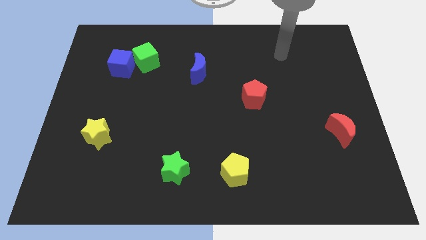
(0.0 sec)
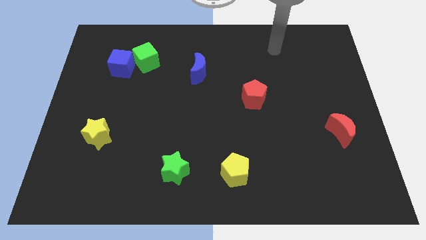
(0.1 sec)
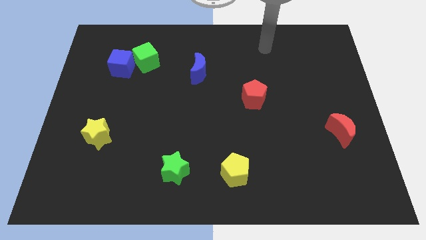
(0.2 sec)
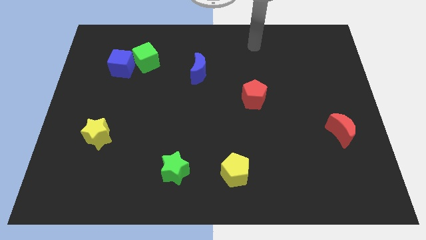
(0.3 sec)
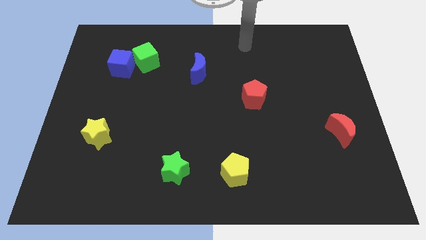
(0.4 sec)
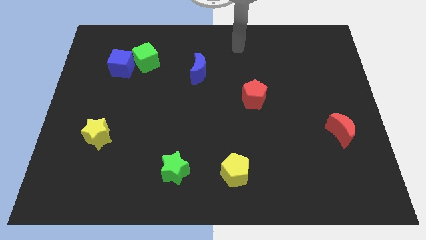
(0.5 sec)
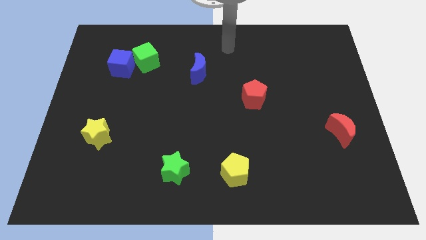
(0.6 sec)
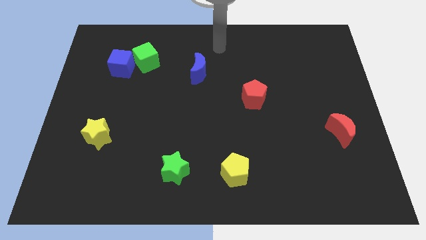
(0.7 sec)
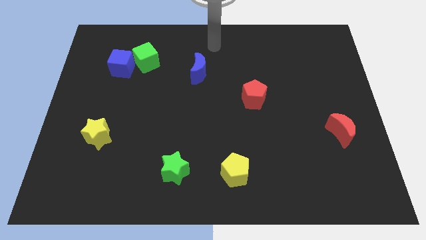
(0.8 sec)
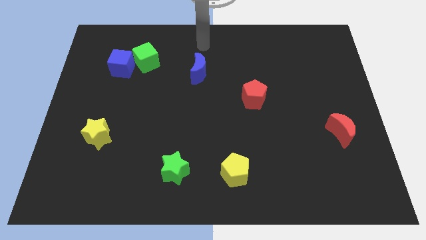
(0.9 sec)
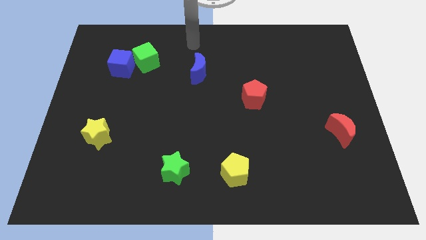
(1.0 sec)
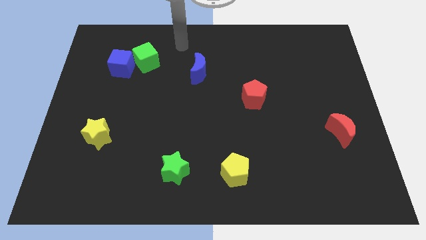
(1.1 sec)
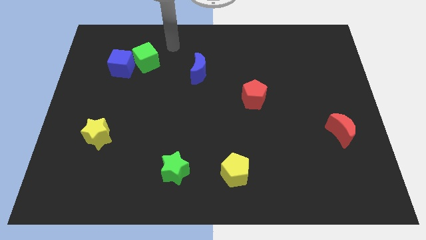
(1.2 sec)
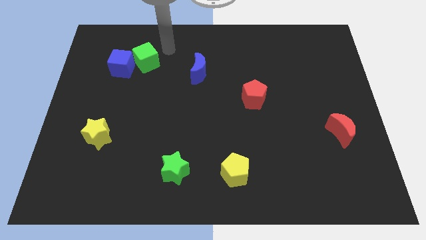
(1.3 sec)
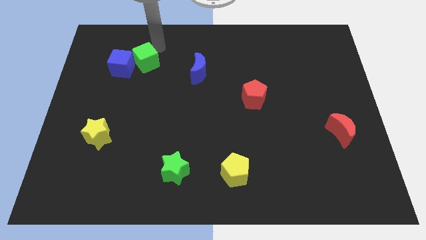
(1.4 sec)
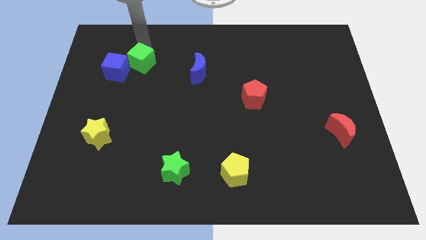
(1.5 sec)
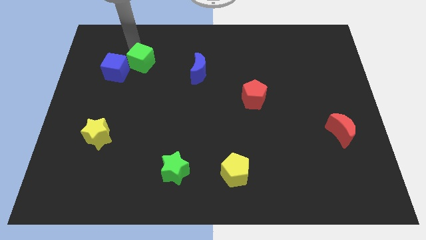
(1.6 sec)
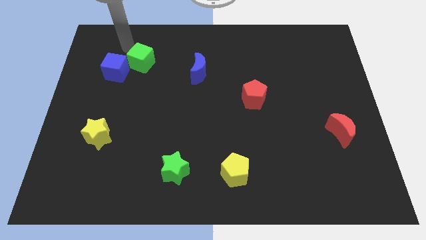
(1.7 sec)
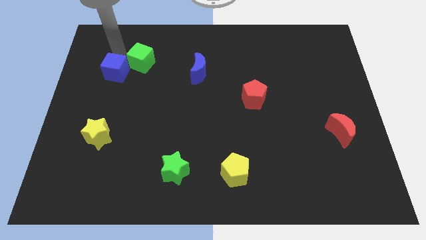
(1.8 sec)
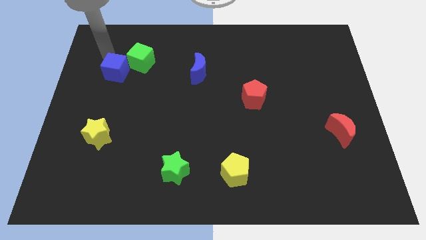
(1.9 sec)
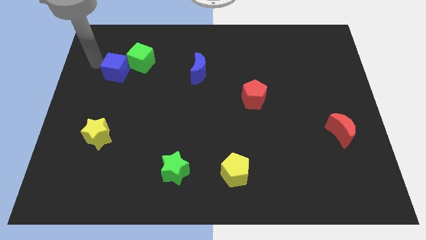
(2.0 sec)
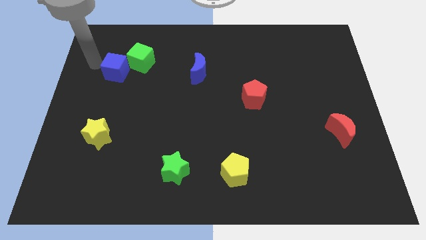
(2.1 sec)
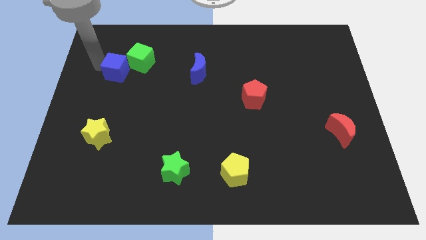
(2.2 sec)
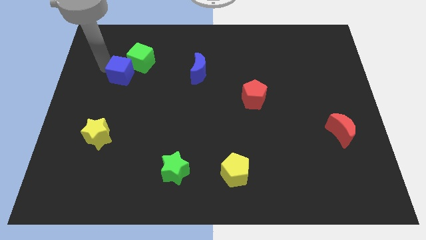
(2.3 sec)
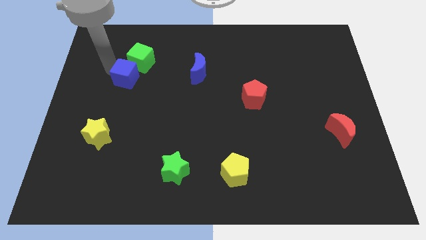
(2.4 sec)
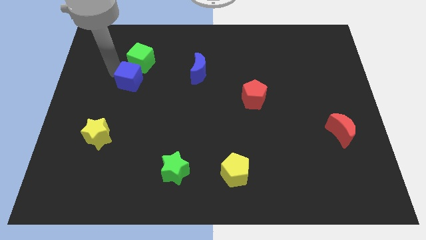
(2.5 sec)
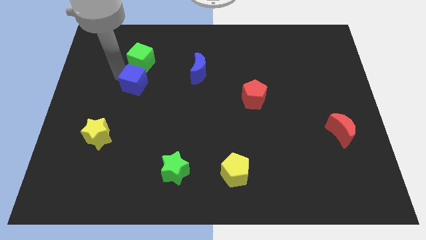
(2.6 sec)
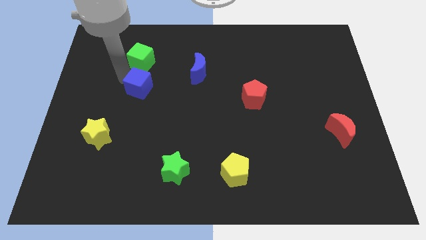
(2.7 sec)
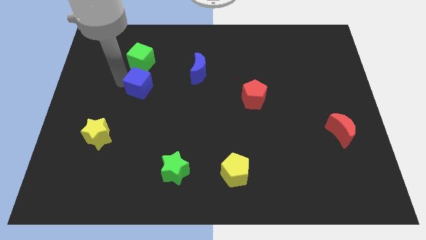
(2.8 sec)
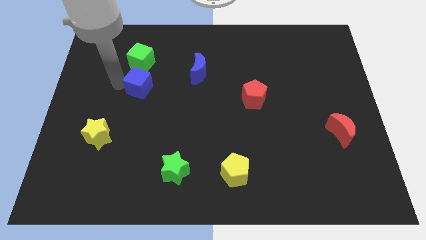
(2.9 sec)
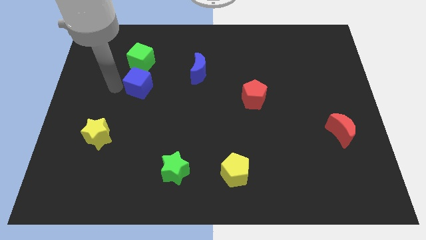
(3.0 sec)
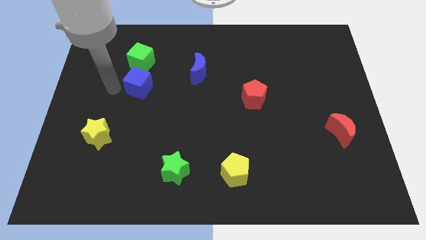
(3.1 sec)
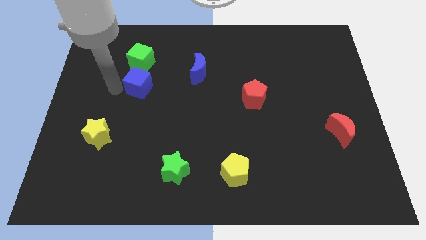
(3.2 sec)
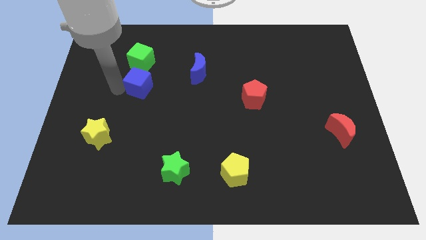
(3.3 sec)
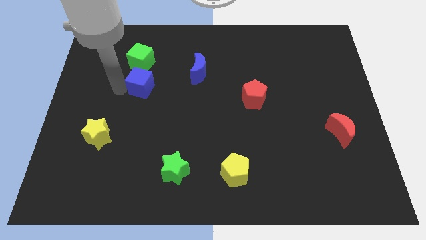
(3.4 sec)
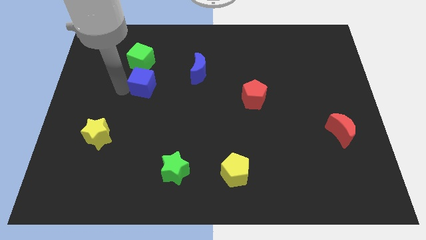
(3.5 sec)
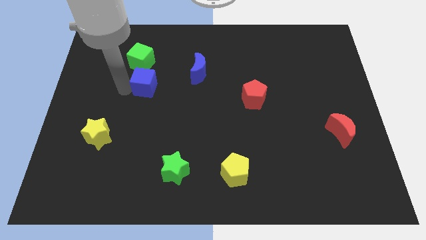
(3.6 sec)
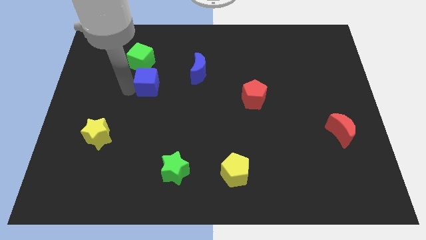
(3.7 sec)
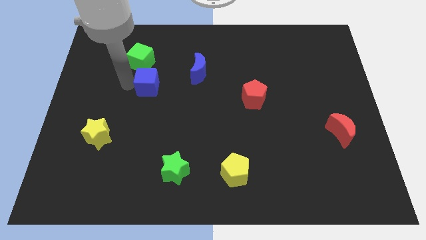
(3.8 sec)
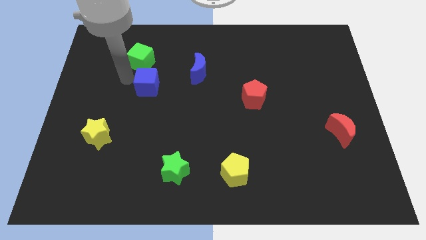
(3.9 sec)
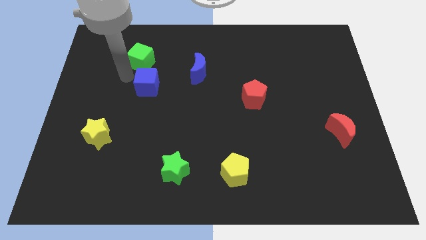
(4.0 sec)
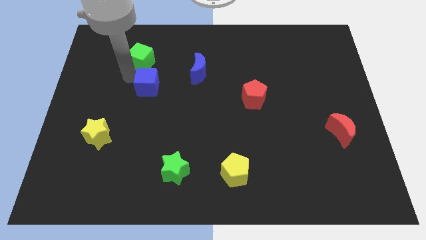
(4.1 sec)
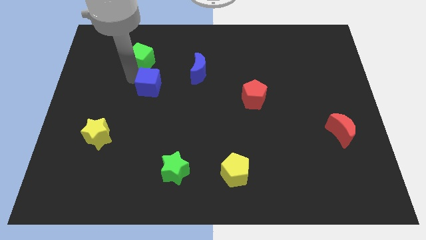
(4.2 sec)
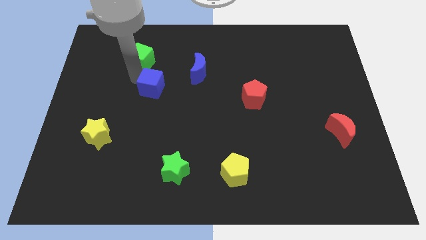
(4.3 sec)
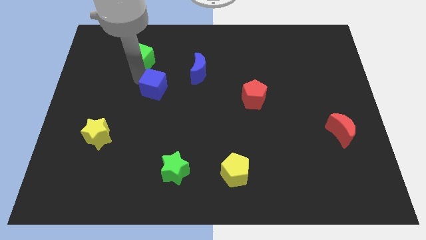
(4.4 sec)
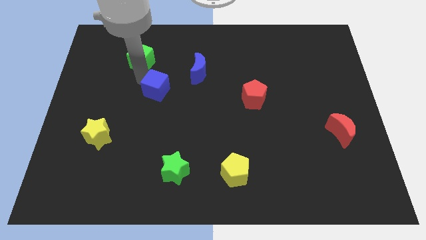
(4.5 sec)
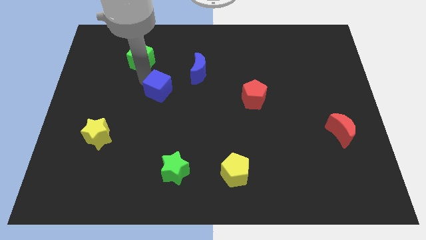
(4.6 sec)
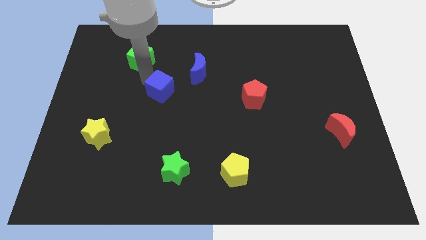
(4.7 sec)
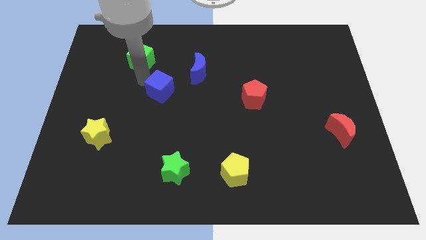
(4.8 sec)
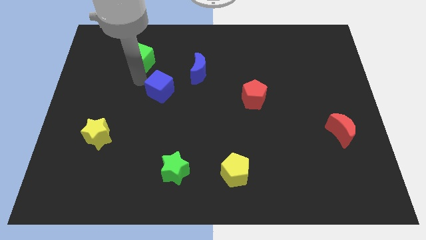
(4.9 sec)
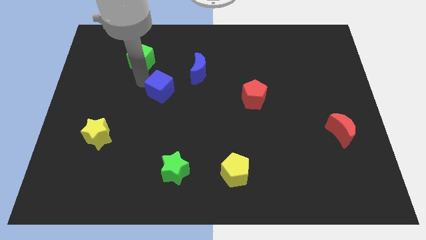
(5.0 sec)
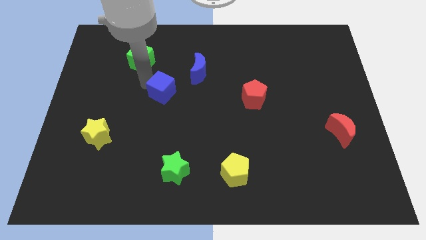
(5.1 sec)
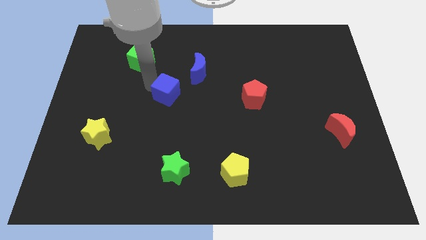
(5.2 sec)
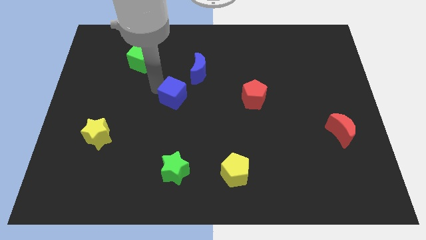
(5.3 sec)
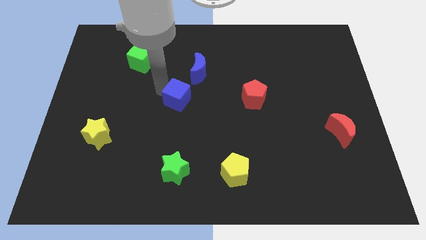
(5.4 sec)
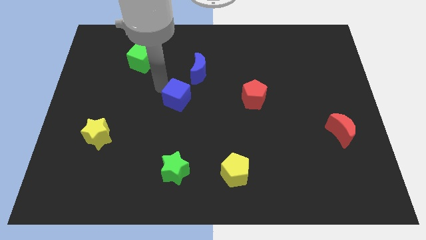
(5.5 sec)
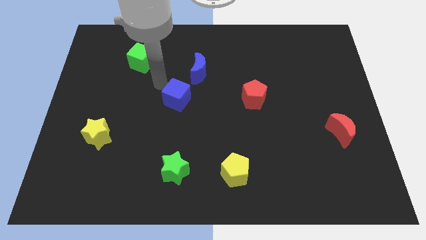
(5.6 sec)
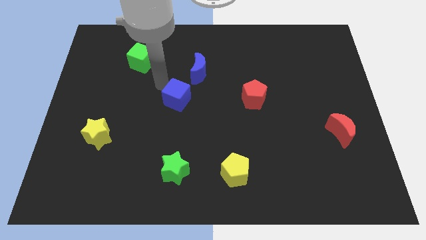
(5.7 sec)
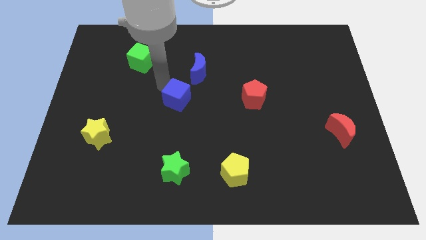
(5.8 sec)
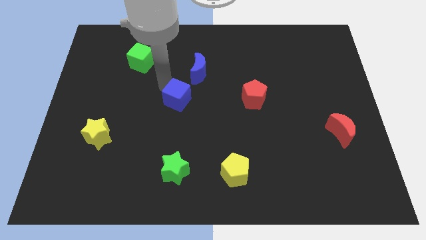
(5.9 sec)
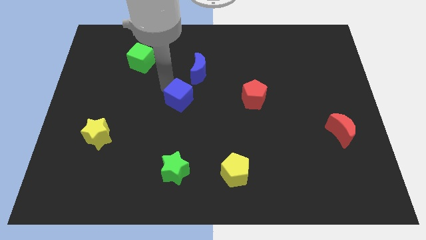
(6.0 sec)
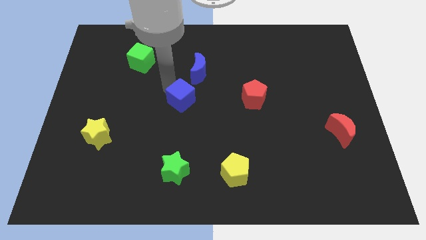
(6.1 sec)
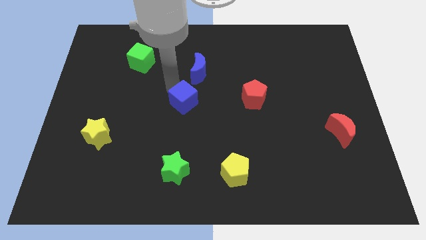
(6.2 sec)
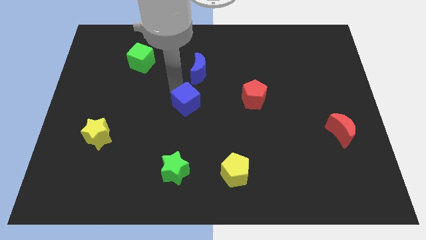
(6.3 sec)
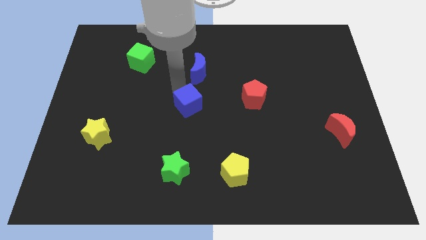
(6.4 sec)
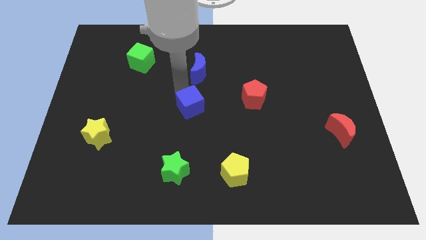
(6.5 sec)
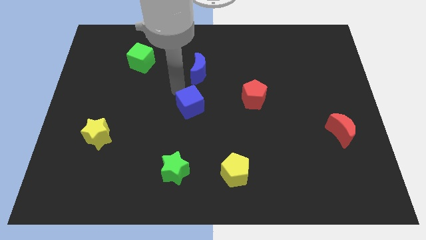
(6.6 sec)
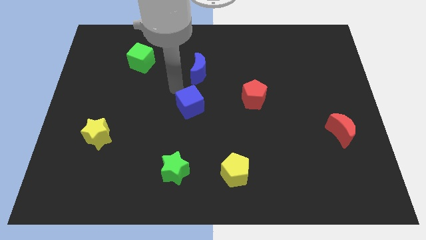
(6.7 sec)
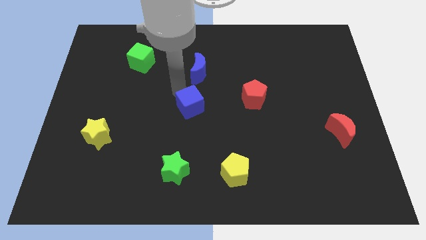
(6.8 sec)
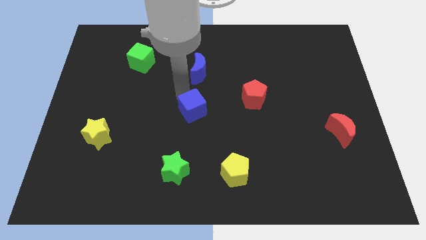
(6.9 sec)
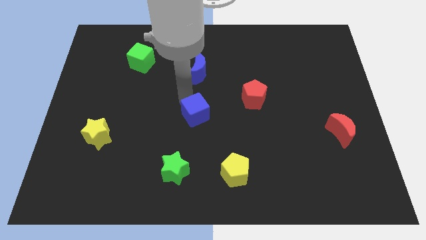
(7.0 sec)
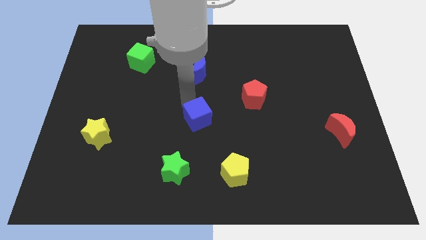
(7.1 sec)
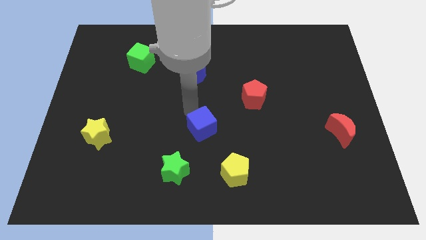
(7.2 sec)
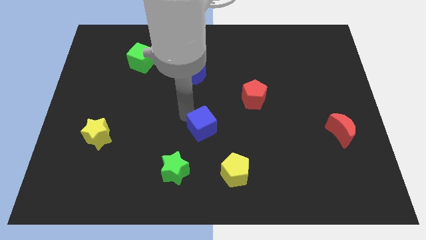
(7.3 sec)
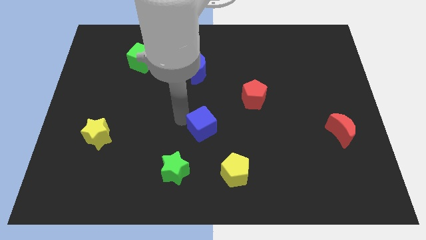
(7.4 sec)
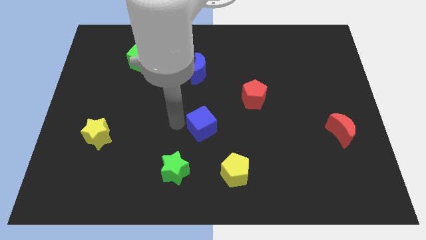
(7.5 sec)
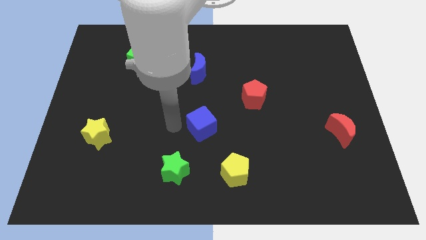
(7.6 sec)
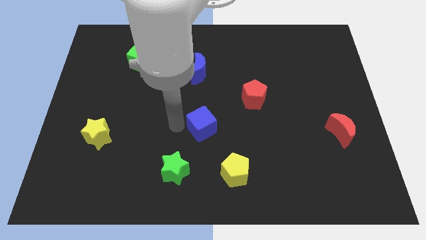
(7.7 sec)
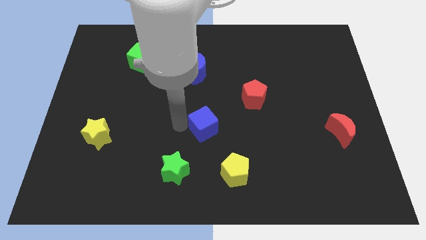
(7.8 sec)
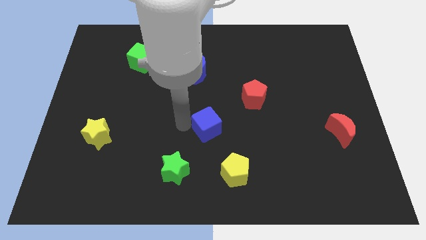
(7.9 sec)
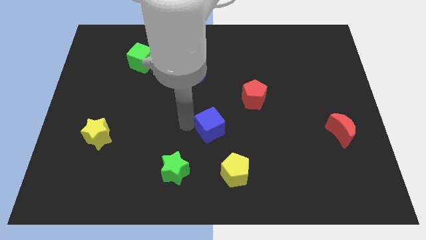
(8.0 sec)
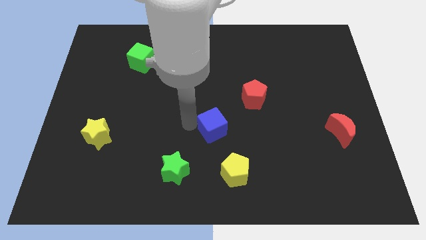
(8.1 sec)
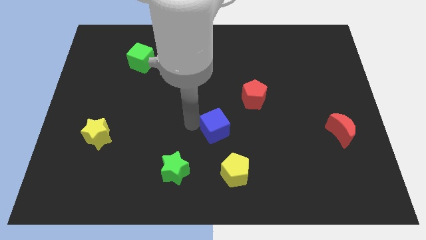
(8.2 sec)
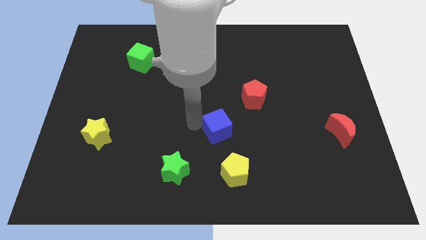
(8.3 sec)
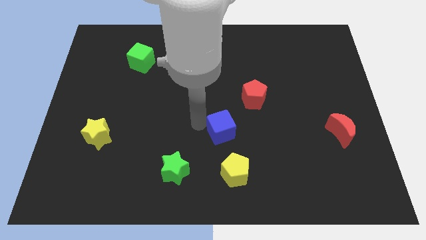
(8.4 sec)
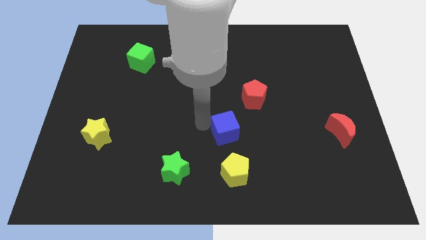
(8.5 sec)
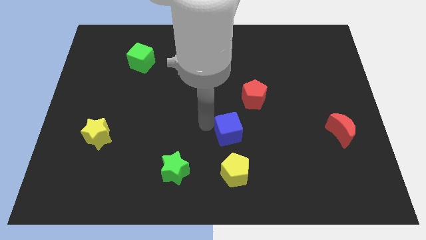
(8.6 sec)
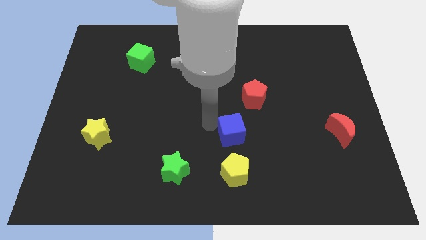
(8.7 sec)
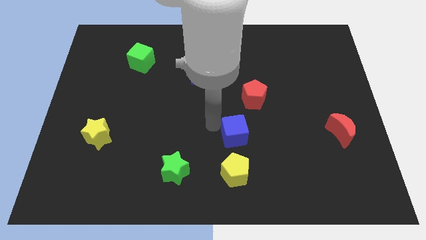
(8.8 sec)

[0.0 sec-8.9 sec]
slide the blue cube to the bottom side of the red pentagon
